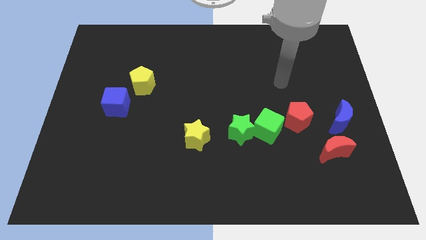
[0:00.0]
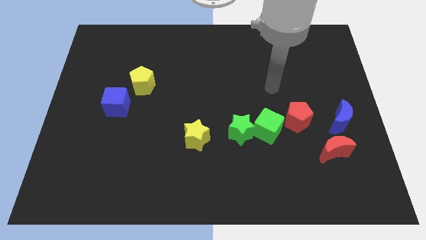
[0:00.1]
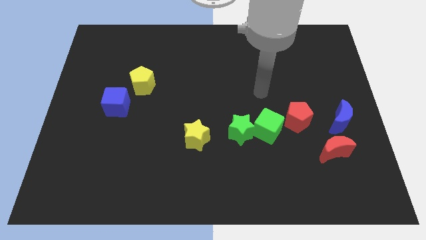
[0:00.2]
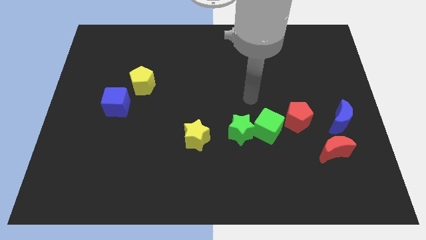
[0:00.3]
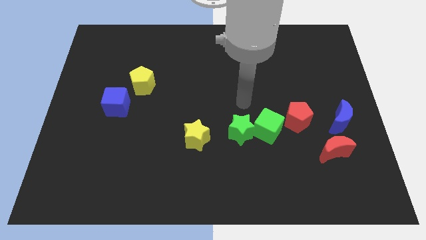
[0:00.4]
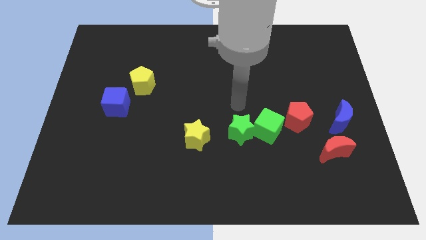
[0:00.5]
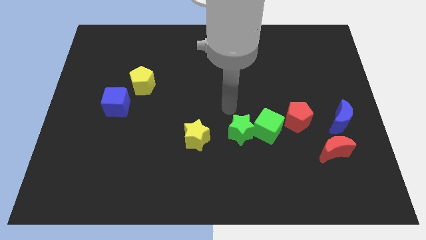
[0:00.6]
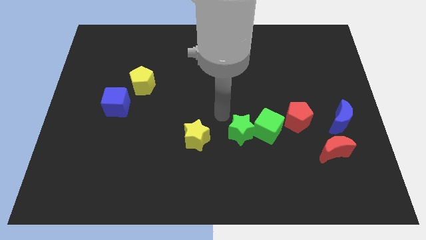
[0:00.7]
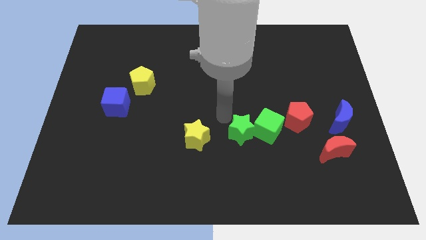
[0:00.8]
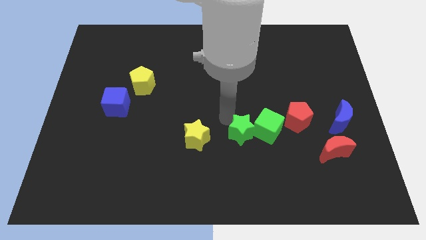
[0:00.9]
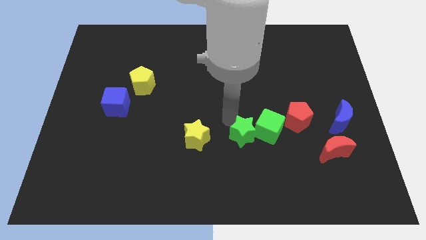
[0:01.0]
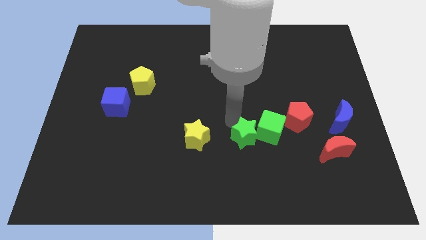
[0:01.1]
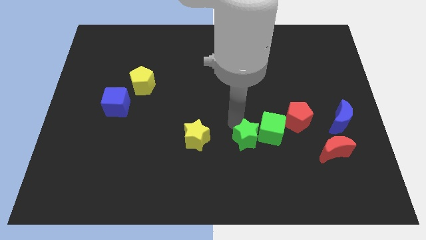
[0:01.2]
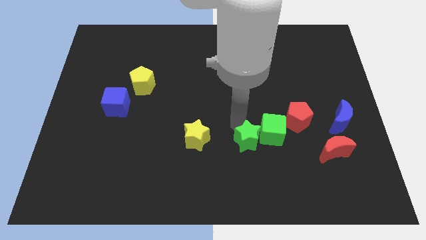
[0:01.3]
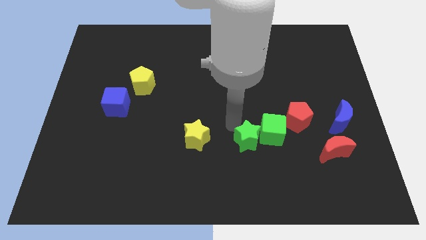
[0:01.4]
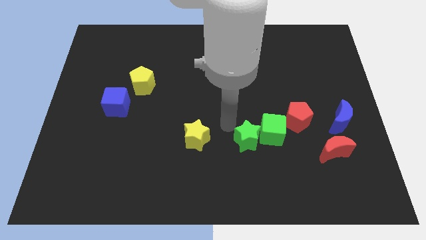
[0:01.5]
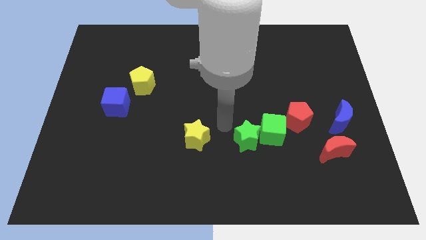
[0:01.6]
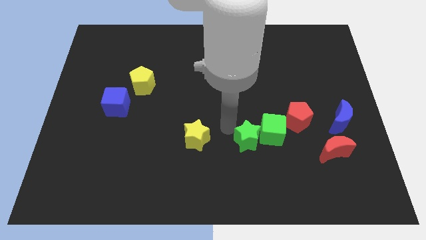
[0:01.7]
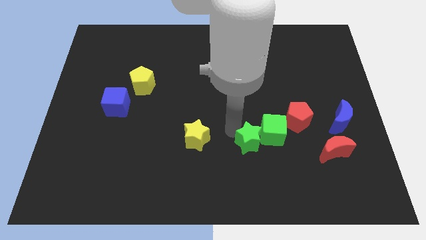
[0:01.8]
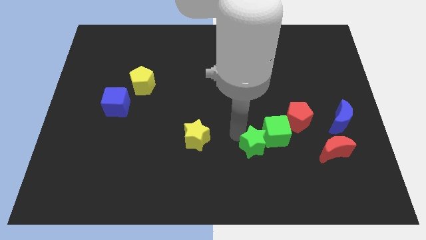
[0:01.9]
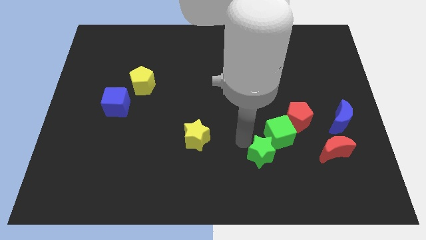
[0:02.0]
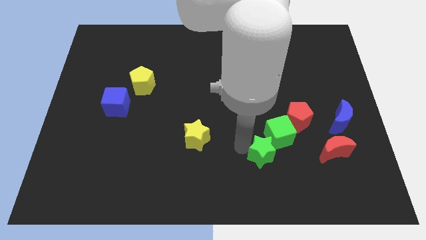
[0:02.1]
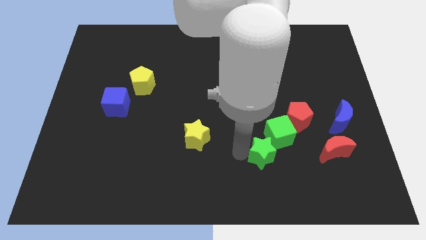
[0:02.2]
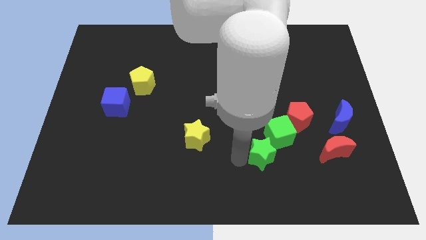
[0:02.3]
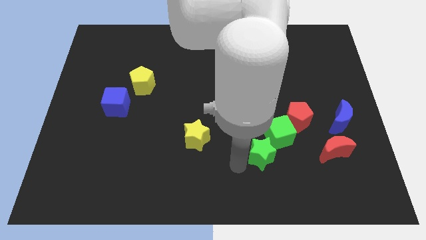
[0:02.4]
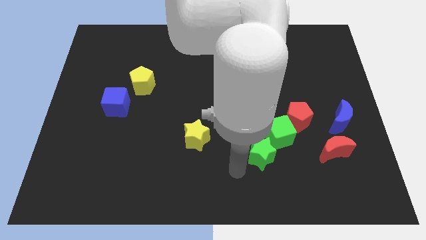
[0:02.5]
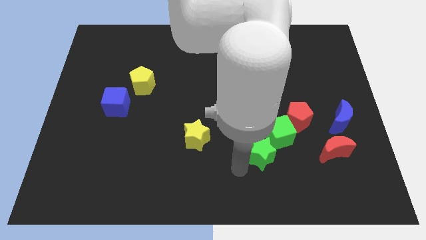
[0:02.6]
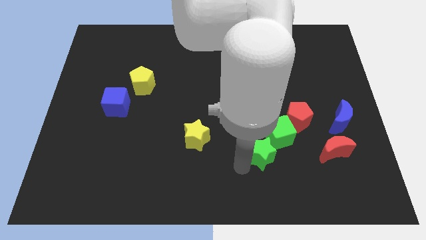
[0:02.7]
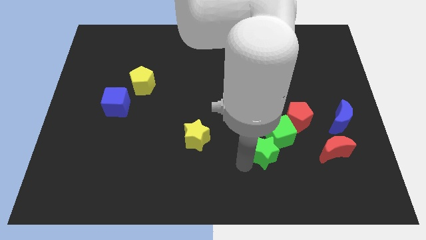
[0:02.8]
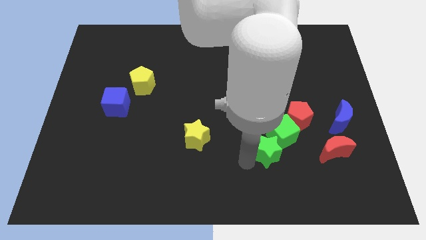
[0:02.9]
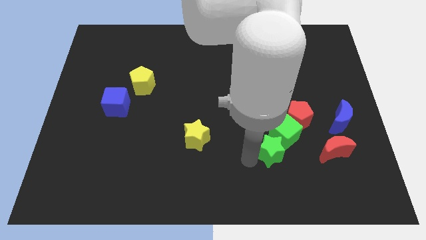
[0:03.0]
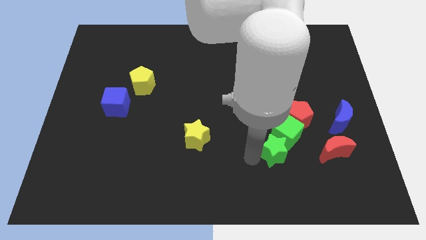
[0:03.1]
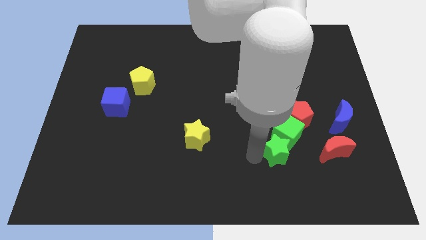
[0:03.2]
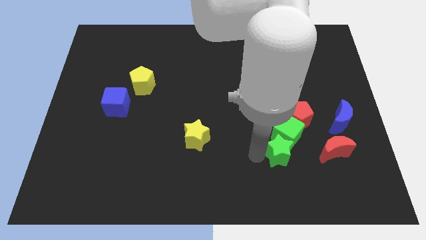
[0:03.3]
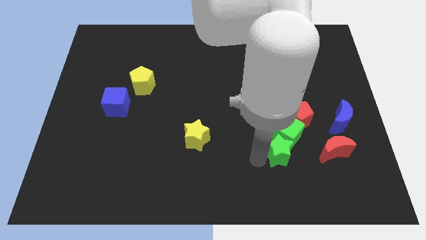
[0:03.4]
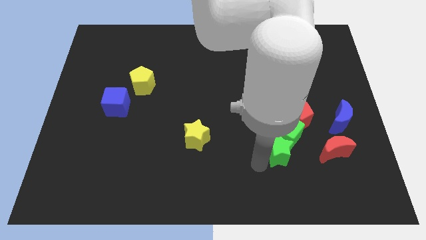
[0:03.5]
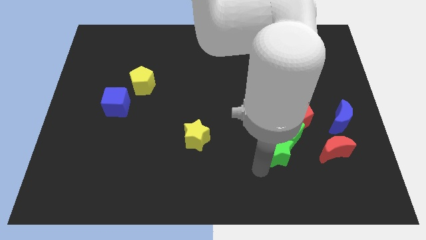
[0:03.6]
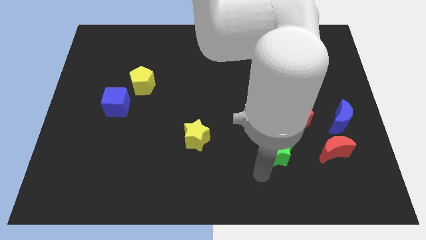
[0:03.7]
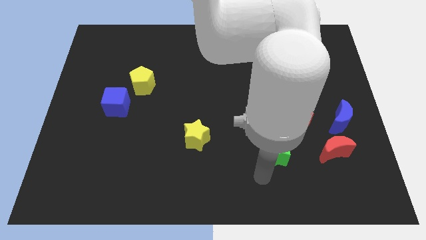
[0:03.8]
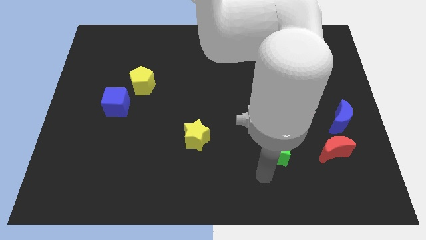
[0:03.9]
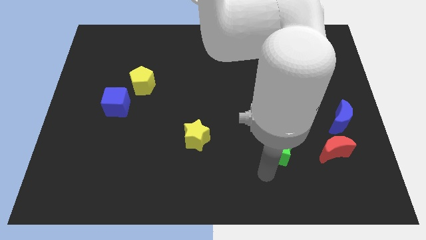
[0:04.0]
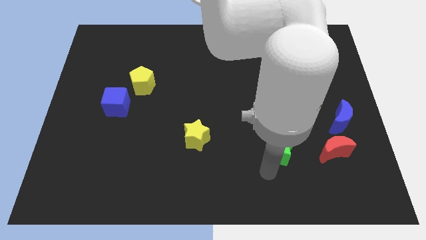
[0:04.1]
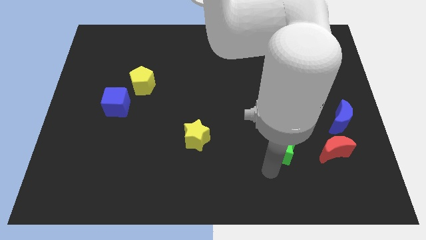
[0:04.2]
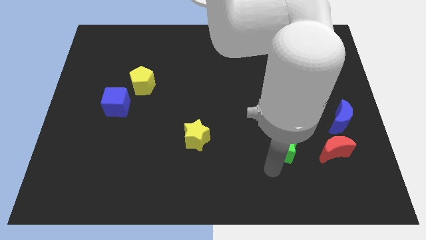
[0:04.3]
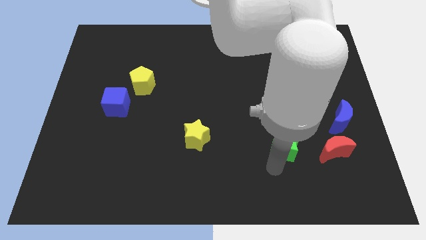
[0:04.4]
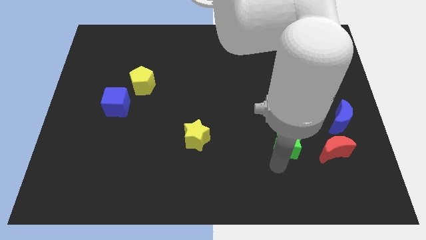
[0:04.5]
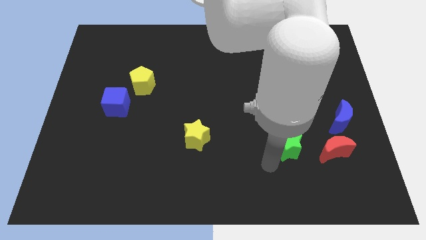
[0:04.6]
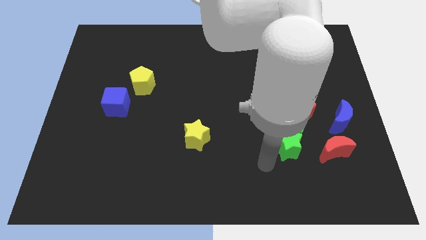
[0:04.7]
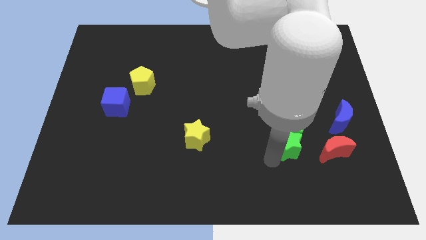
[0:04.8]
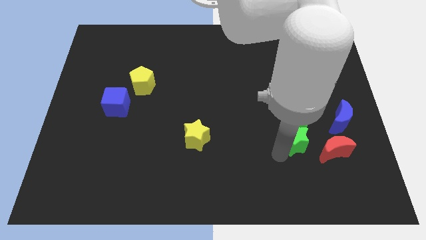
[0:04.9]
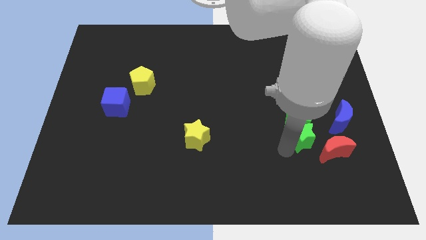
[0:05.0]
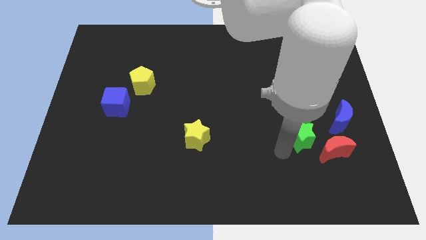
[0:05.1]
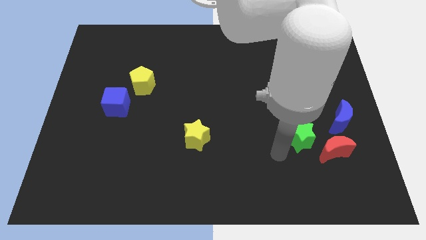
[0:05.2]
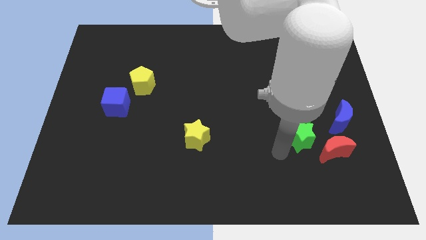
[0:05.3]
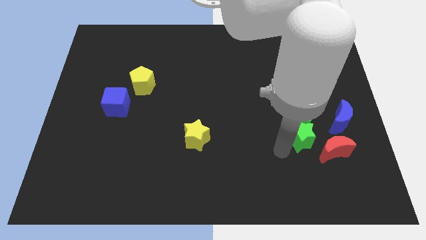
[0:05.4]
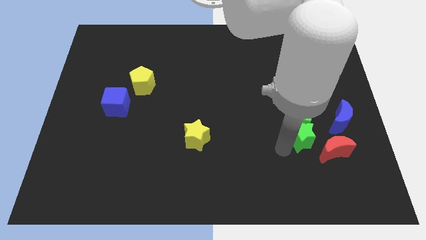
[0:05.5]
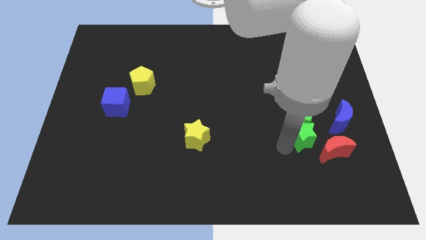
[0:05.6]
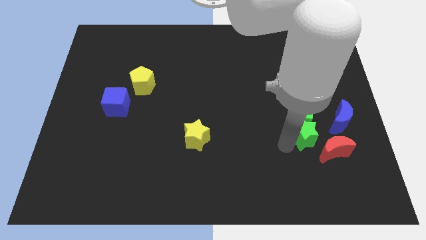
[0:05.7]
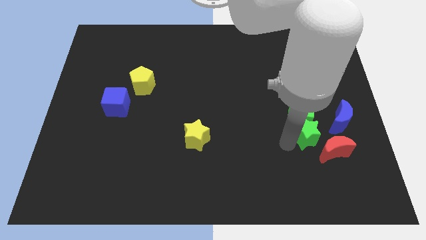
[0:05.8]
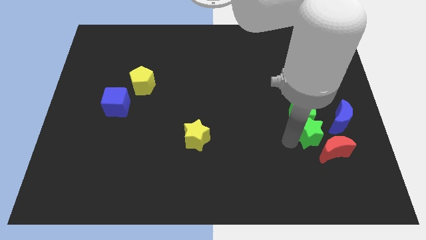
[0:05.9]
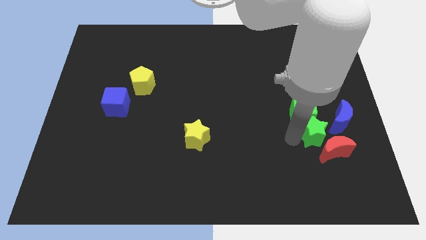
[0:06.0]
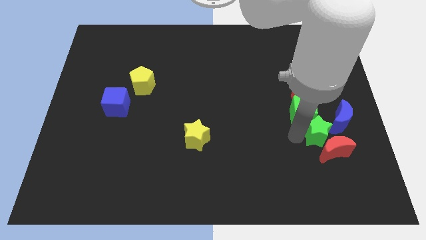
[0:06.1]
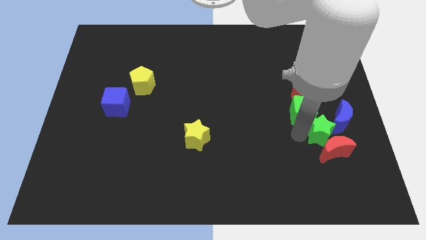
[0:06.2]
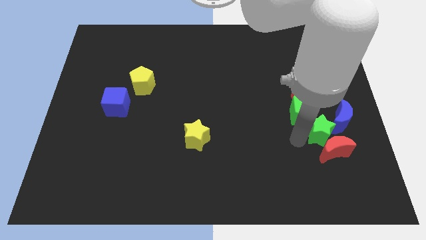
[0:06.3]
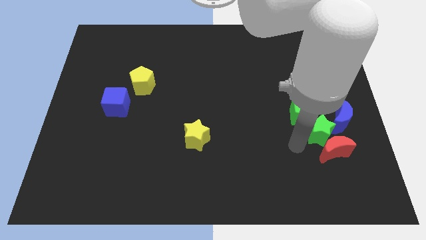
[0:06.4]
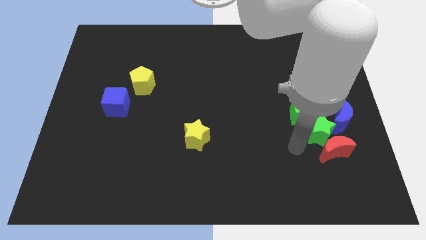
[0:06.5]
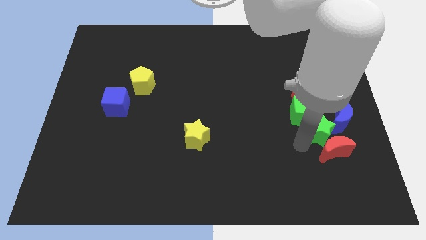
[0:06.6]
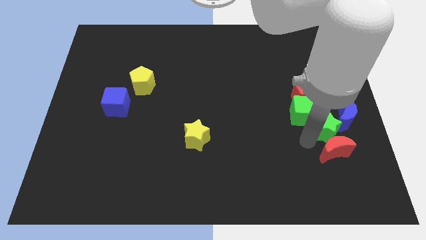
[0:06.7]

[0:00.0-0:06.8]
move the green star close to the blue moon

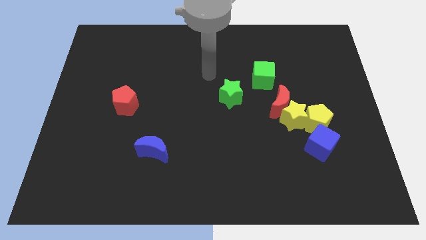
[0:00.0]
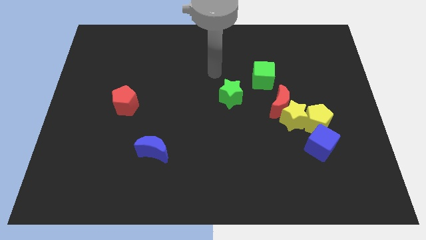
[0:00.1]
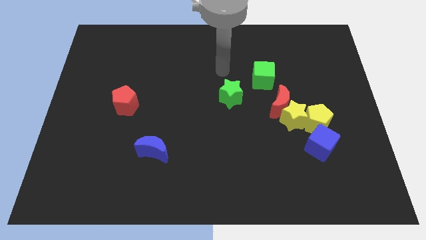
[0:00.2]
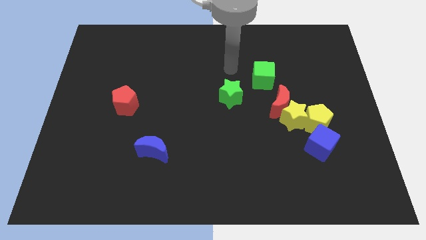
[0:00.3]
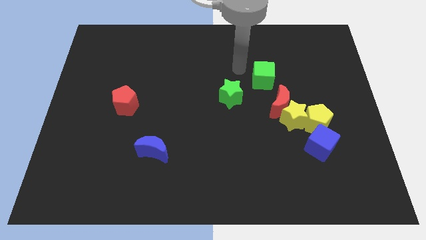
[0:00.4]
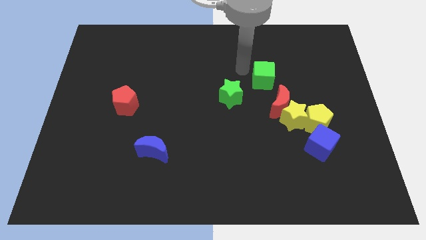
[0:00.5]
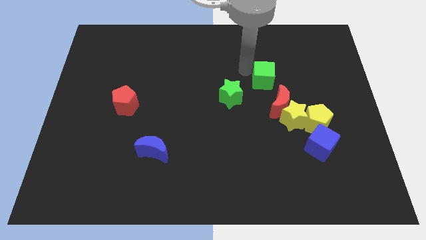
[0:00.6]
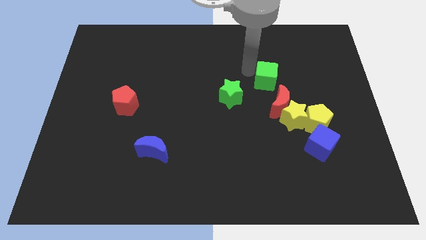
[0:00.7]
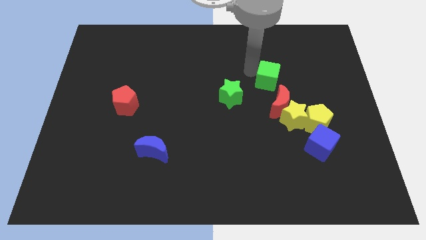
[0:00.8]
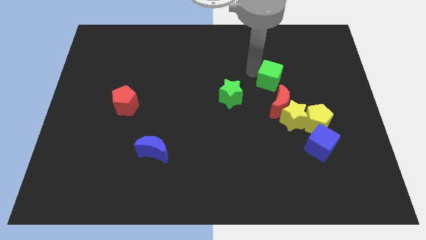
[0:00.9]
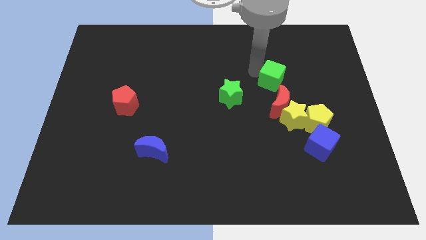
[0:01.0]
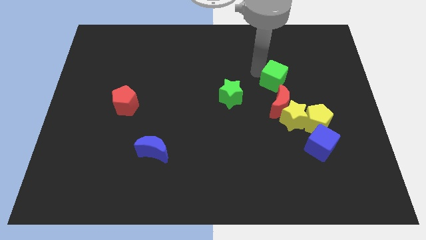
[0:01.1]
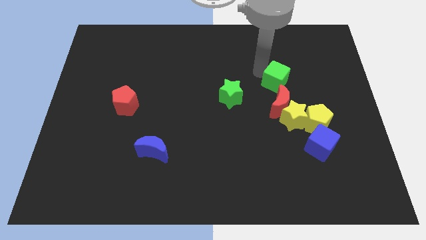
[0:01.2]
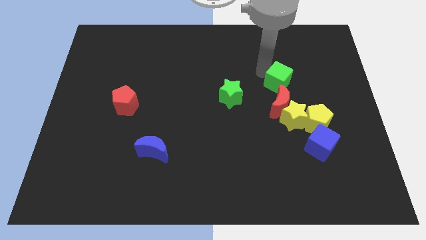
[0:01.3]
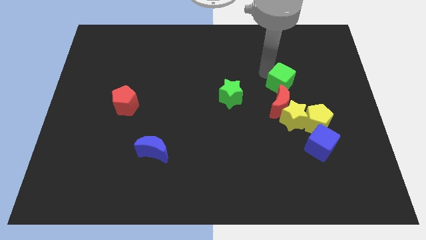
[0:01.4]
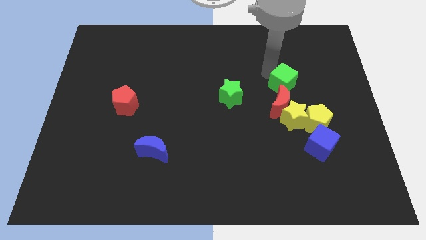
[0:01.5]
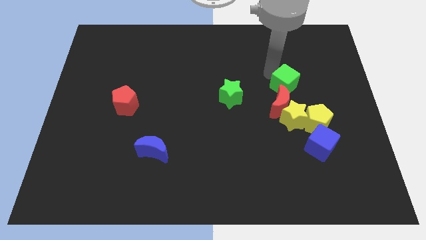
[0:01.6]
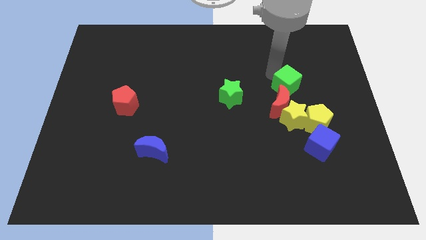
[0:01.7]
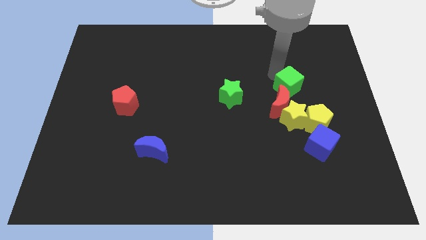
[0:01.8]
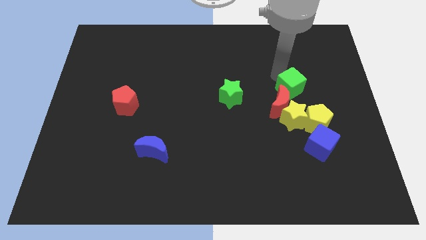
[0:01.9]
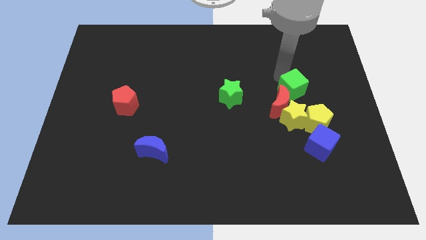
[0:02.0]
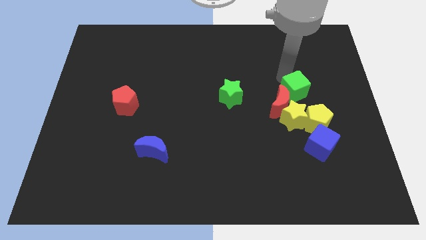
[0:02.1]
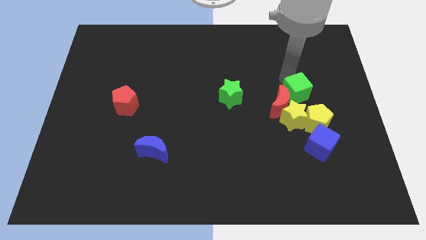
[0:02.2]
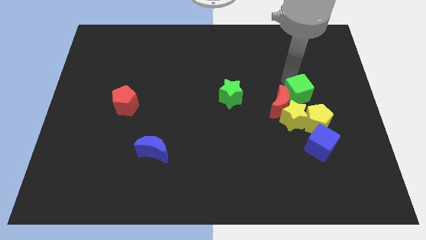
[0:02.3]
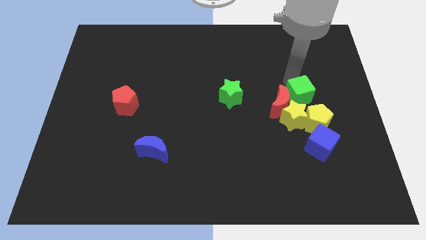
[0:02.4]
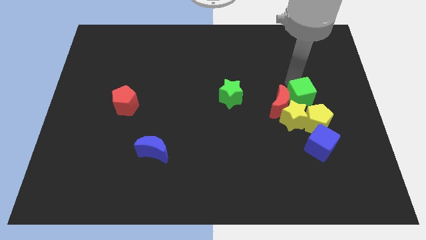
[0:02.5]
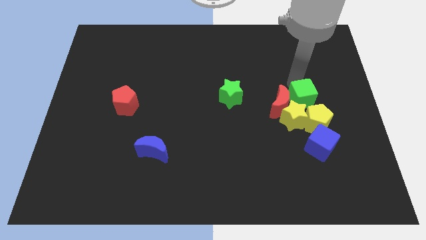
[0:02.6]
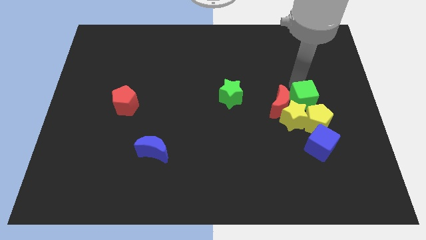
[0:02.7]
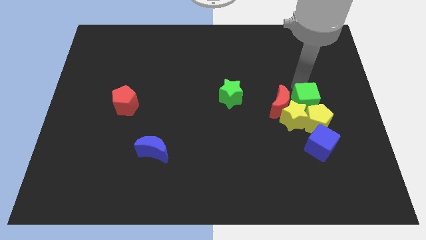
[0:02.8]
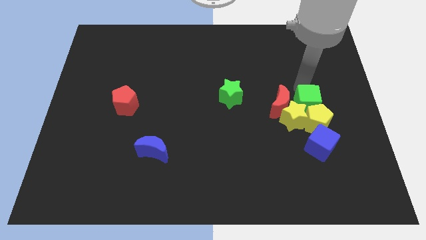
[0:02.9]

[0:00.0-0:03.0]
push the green cube to the yellow star
